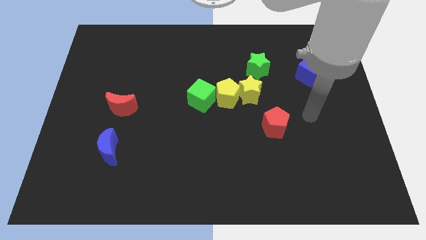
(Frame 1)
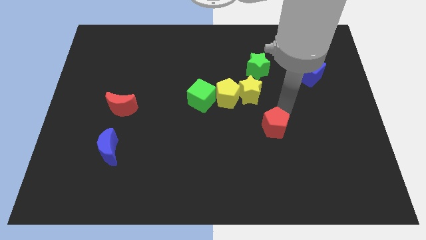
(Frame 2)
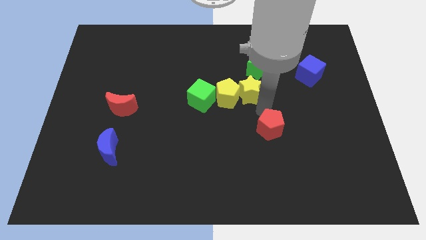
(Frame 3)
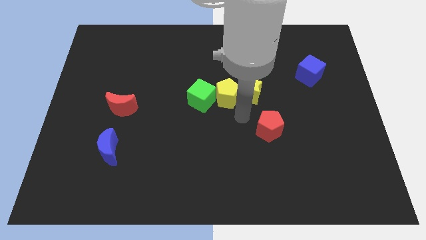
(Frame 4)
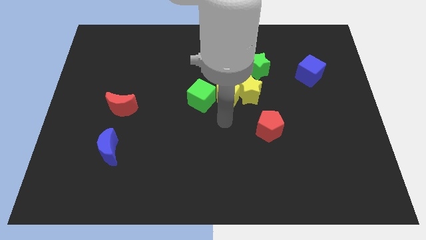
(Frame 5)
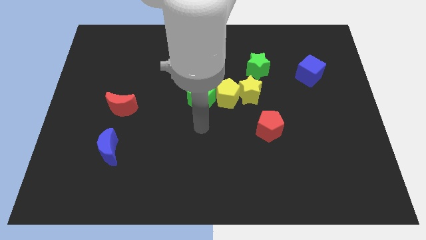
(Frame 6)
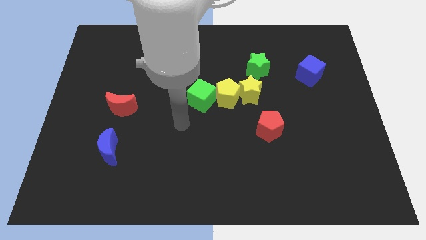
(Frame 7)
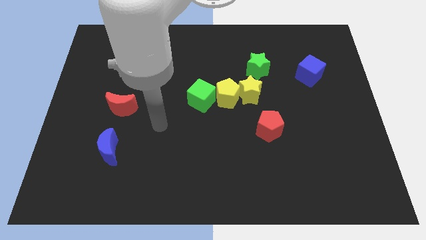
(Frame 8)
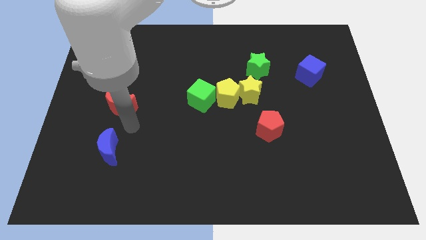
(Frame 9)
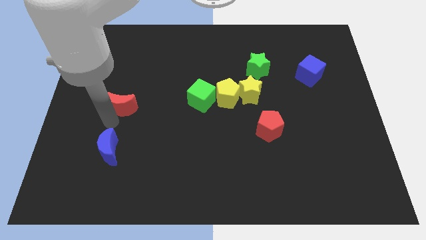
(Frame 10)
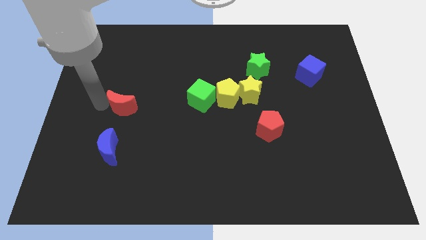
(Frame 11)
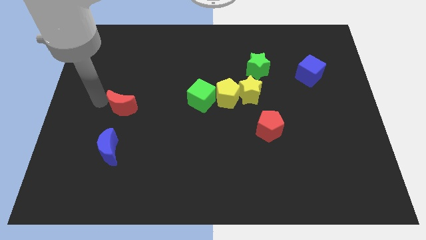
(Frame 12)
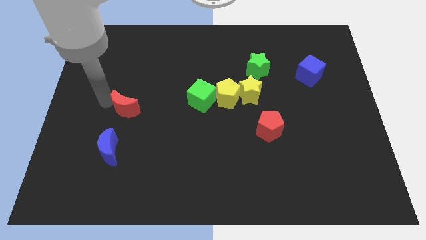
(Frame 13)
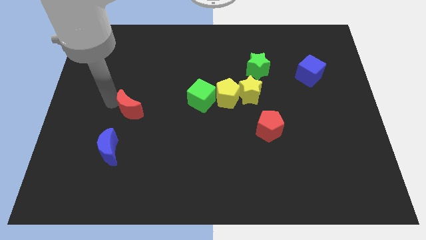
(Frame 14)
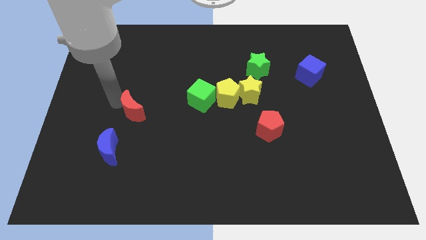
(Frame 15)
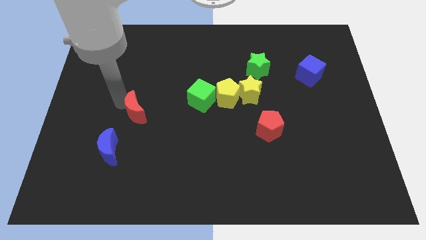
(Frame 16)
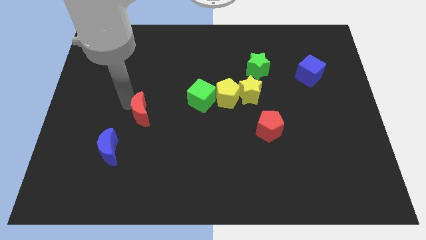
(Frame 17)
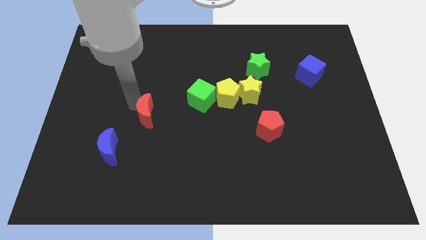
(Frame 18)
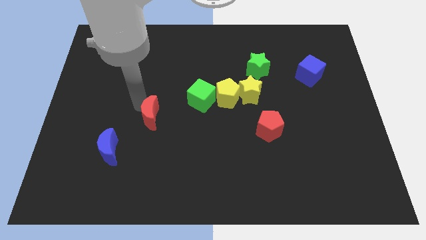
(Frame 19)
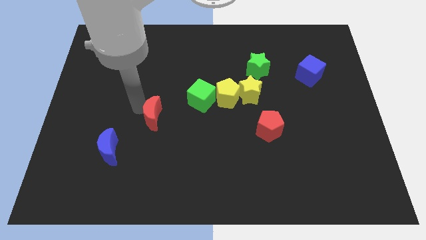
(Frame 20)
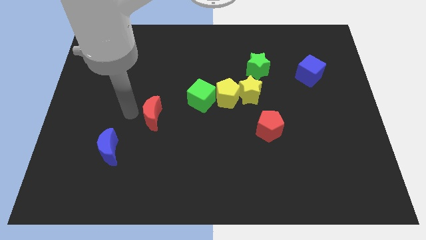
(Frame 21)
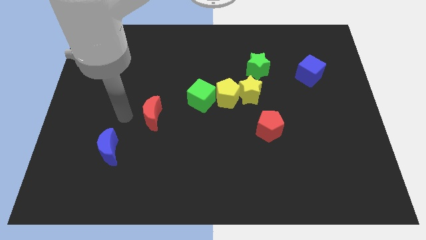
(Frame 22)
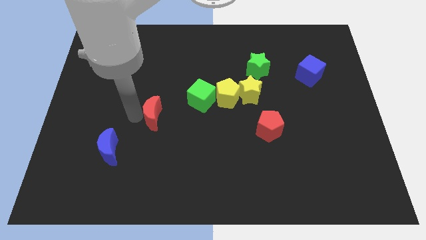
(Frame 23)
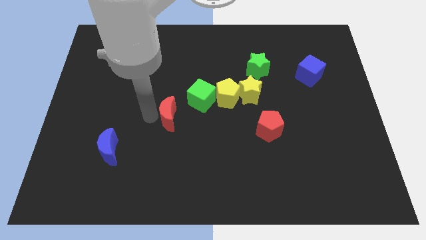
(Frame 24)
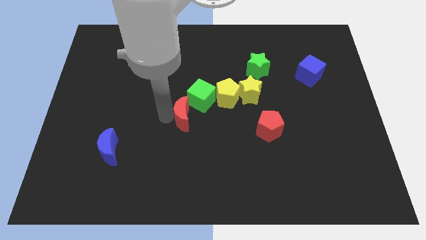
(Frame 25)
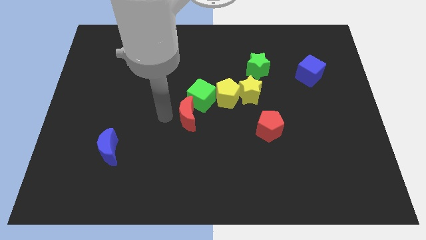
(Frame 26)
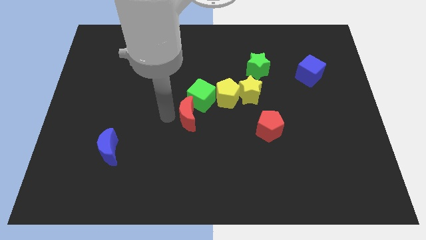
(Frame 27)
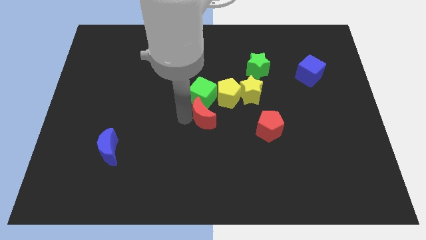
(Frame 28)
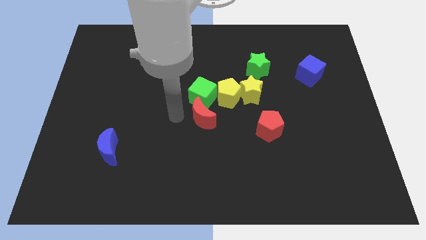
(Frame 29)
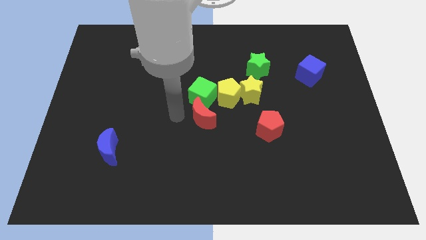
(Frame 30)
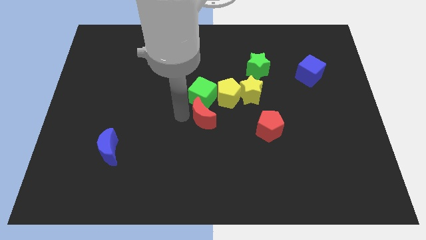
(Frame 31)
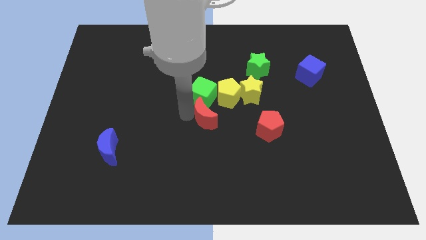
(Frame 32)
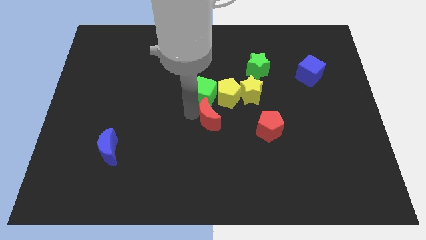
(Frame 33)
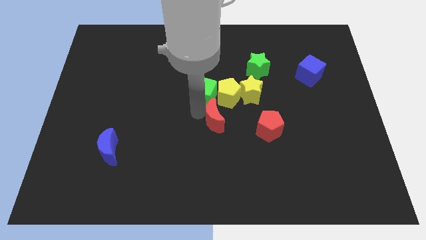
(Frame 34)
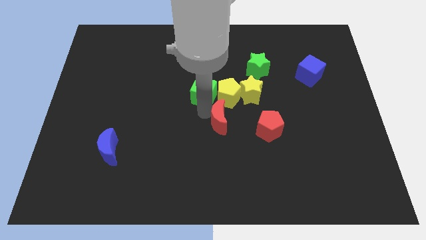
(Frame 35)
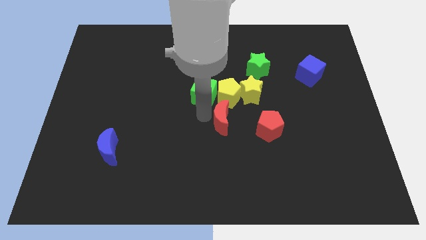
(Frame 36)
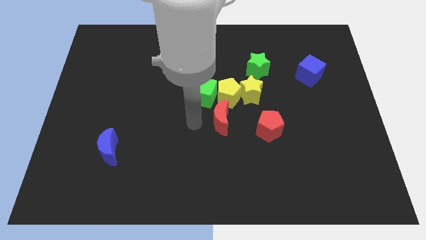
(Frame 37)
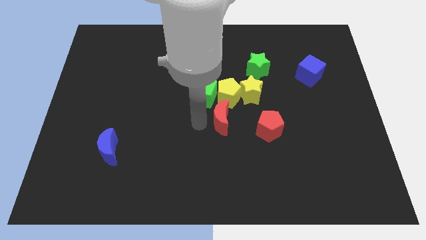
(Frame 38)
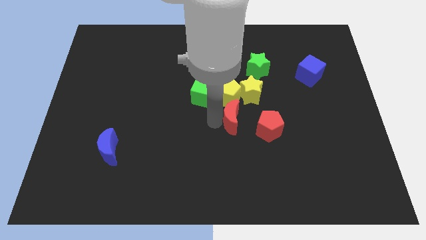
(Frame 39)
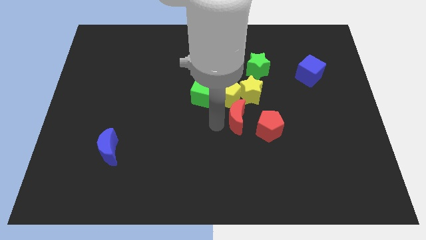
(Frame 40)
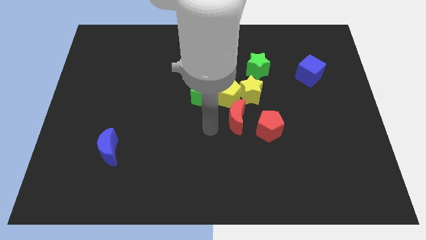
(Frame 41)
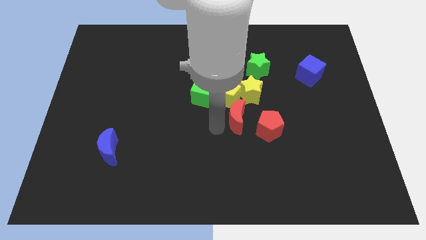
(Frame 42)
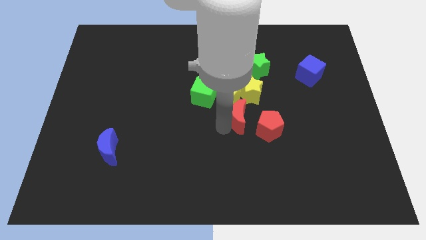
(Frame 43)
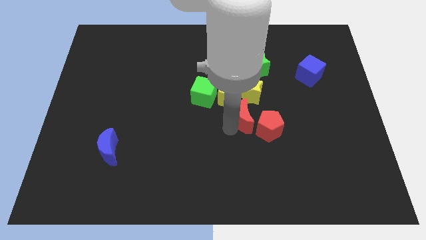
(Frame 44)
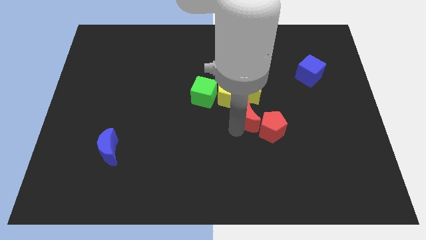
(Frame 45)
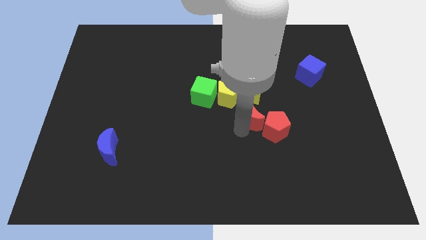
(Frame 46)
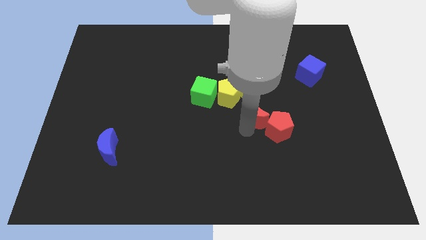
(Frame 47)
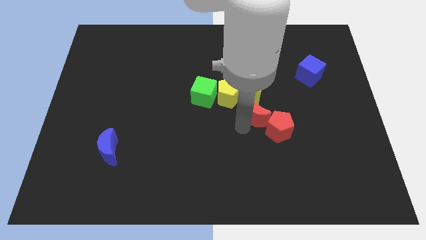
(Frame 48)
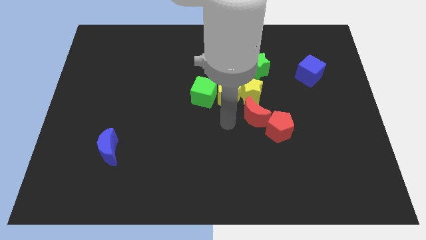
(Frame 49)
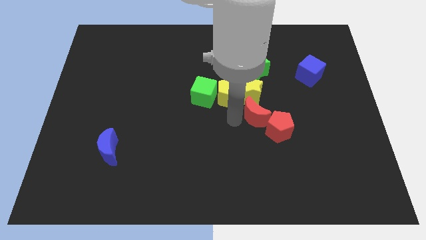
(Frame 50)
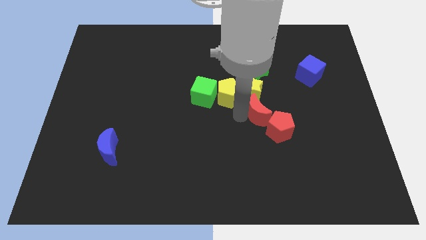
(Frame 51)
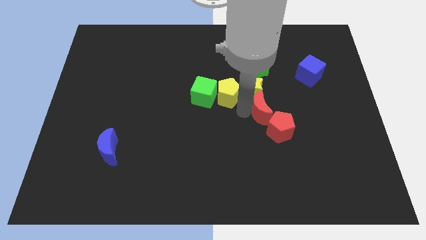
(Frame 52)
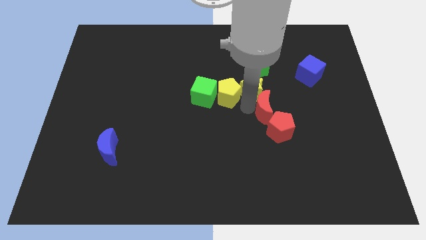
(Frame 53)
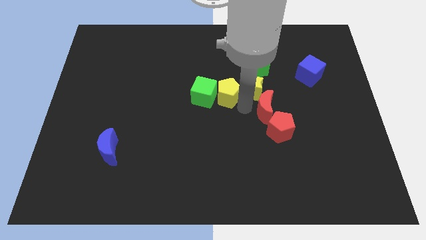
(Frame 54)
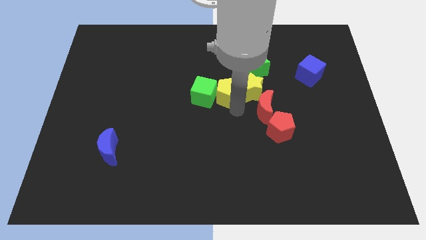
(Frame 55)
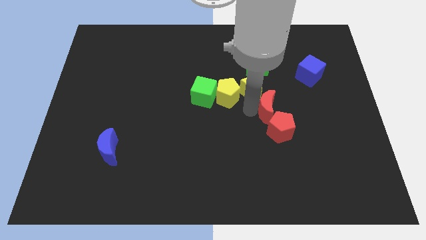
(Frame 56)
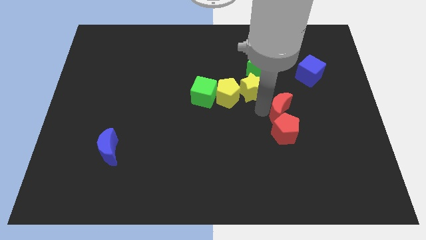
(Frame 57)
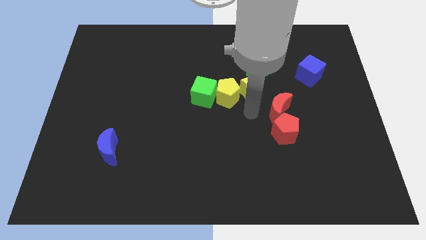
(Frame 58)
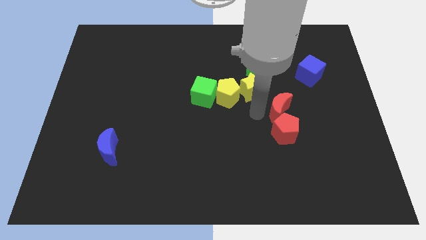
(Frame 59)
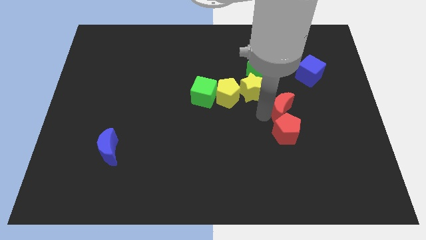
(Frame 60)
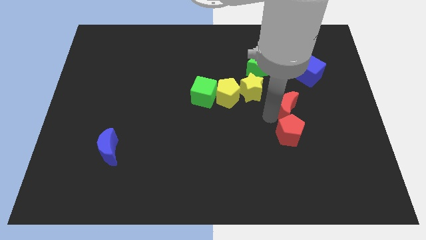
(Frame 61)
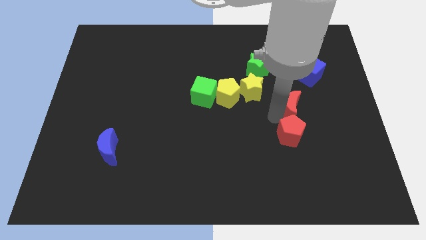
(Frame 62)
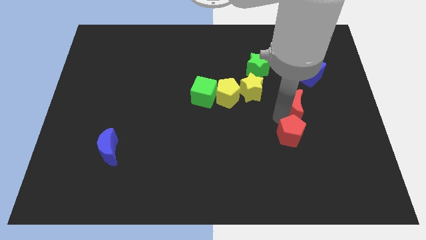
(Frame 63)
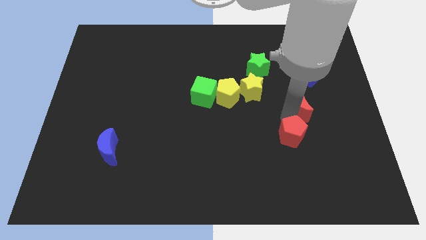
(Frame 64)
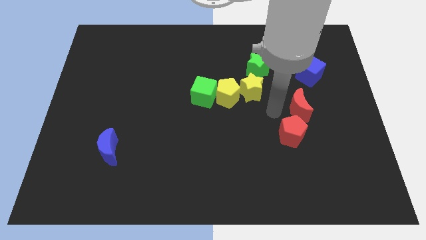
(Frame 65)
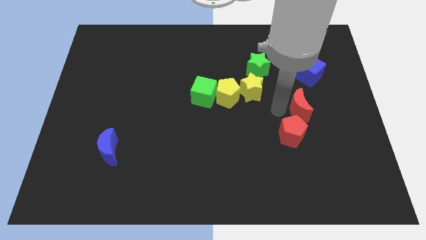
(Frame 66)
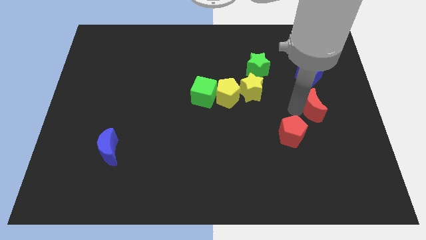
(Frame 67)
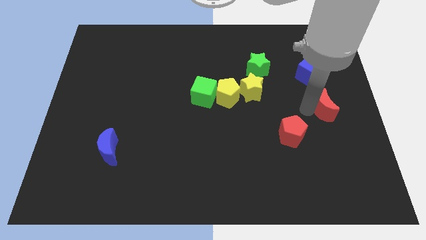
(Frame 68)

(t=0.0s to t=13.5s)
put the red moon to the center right
